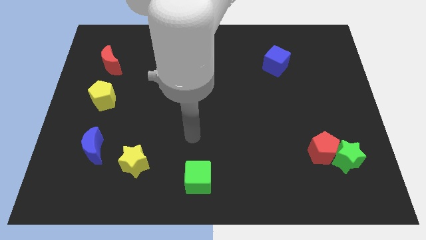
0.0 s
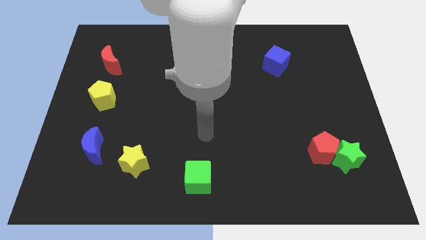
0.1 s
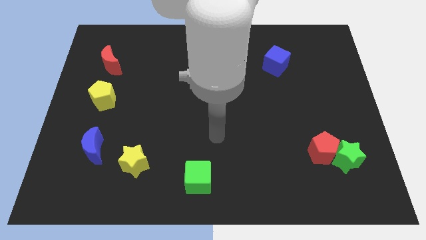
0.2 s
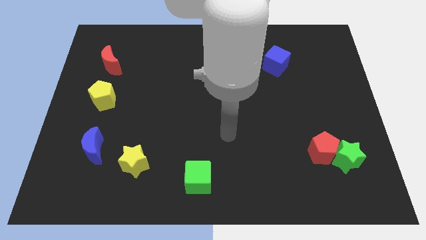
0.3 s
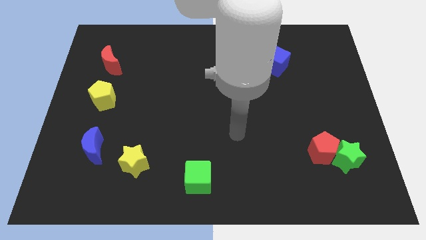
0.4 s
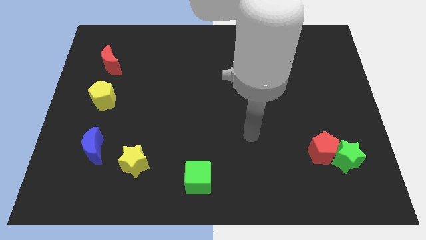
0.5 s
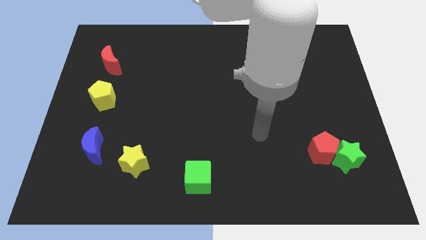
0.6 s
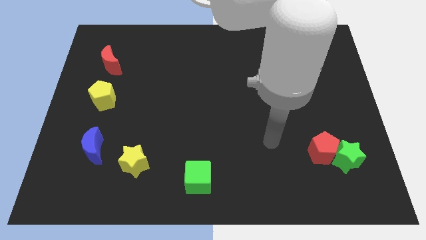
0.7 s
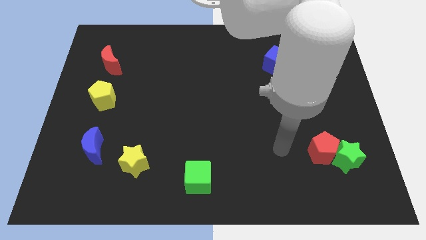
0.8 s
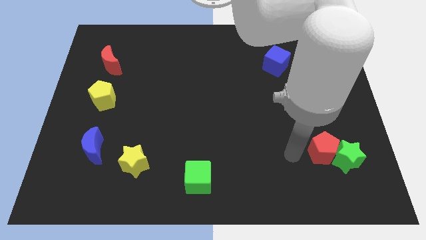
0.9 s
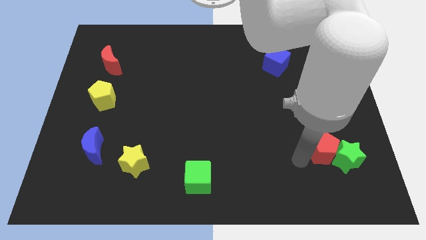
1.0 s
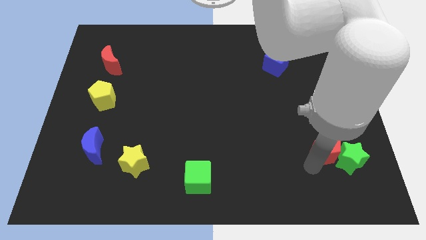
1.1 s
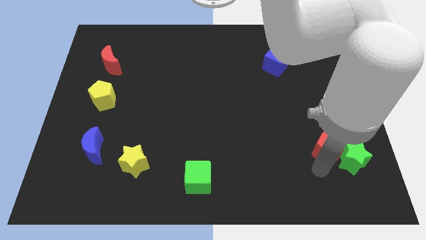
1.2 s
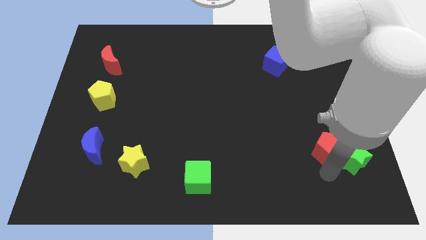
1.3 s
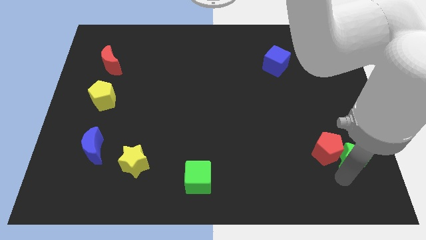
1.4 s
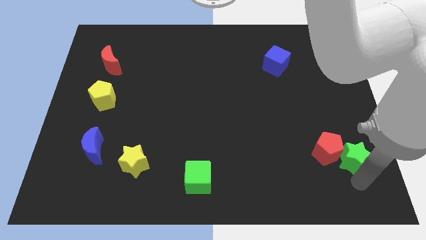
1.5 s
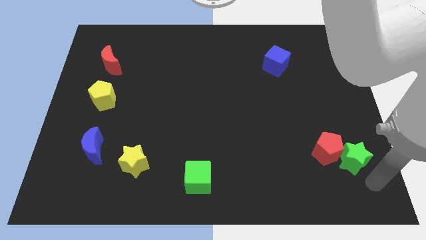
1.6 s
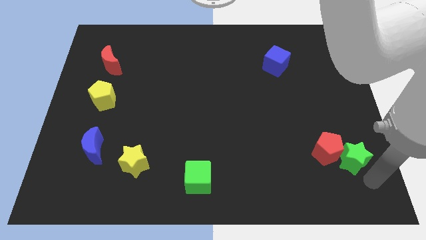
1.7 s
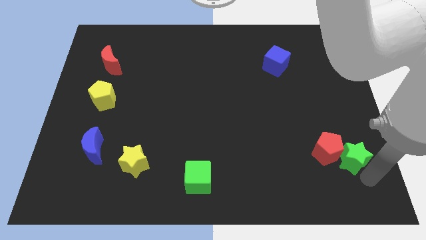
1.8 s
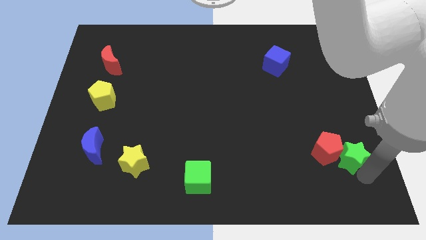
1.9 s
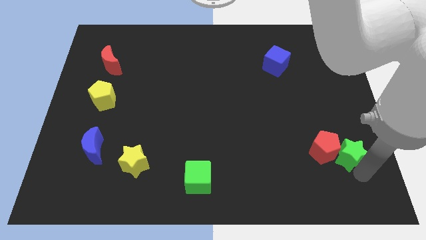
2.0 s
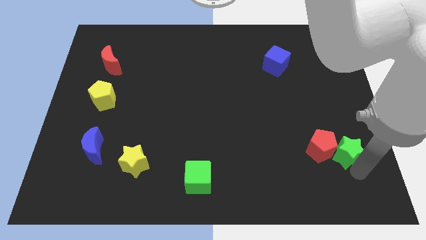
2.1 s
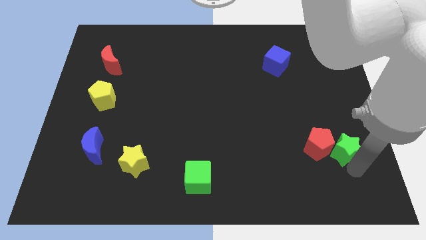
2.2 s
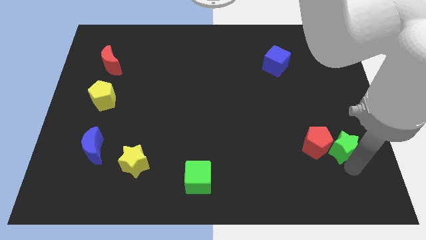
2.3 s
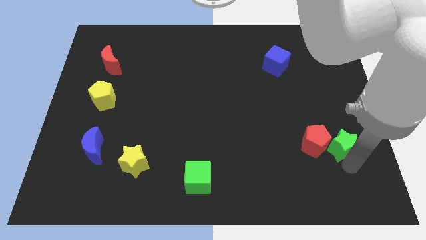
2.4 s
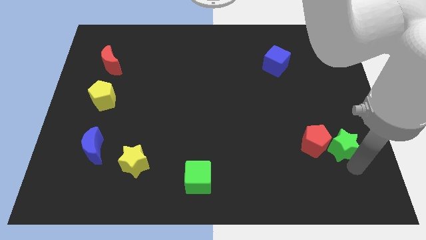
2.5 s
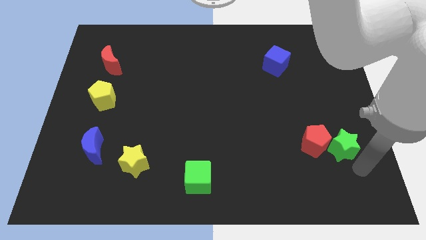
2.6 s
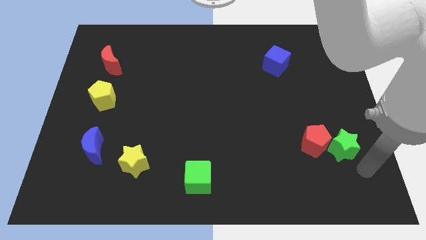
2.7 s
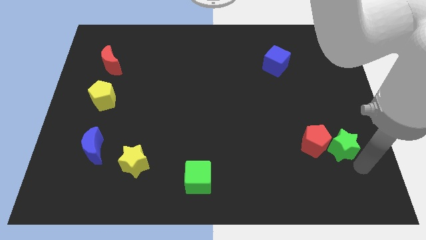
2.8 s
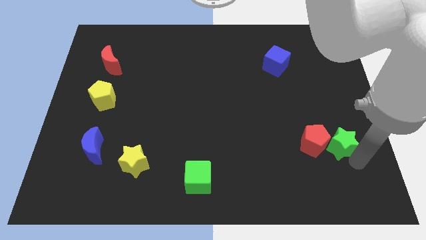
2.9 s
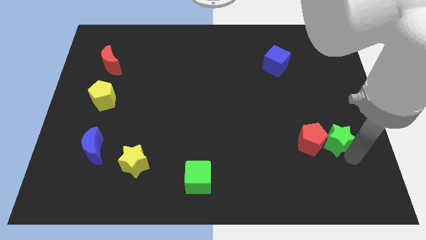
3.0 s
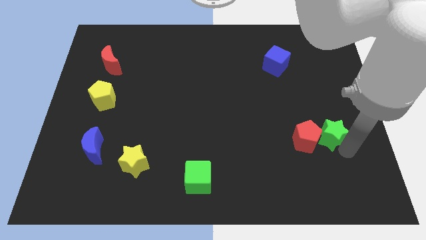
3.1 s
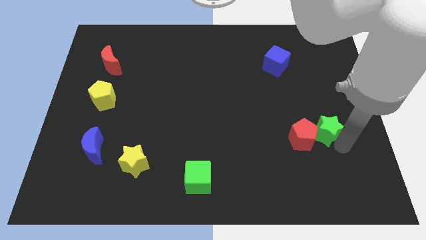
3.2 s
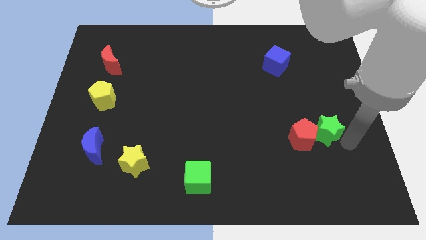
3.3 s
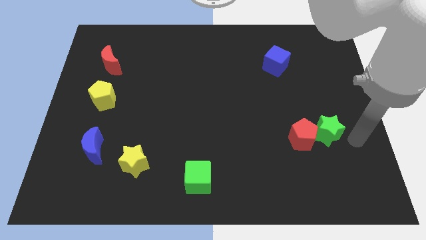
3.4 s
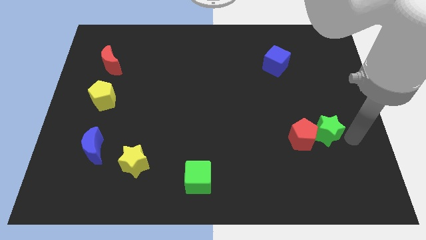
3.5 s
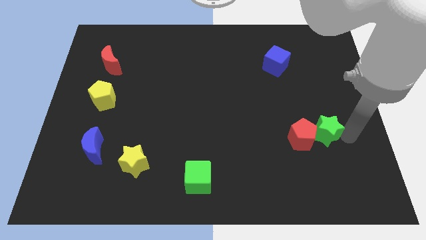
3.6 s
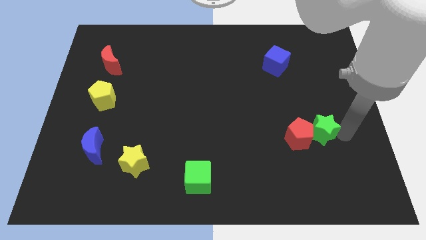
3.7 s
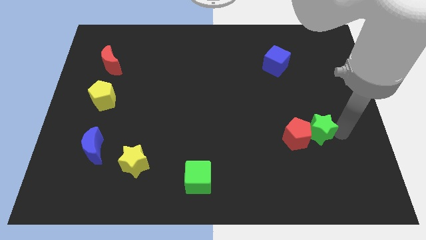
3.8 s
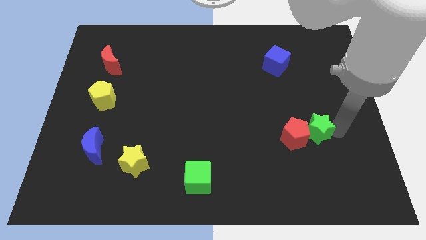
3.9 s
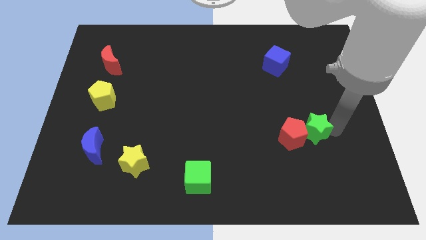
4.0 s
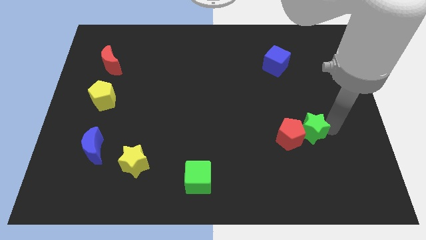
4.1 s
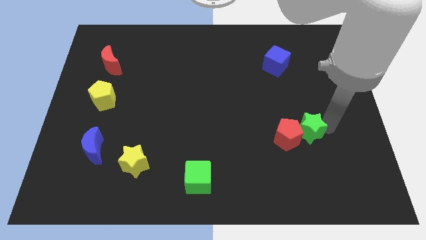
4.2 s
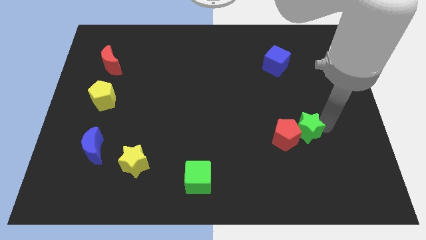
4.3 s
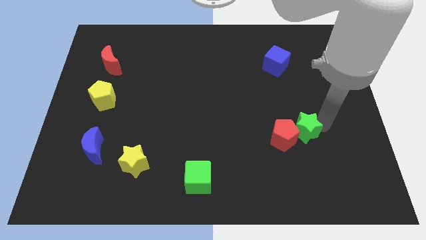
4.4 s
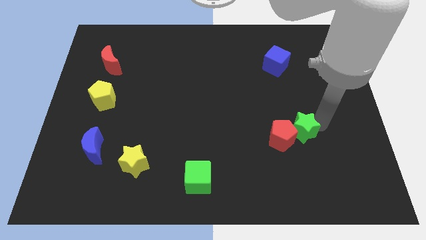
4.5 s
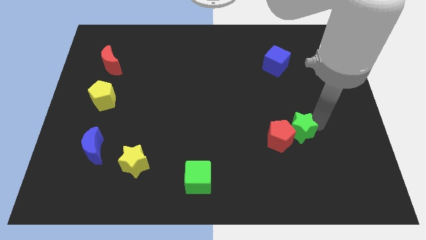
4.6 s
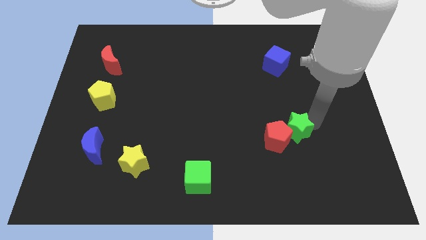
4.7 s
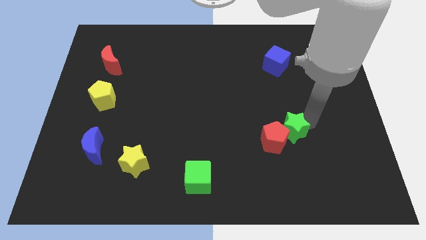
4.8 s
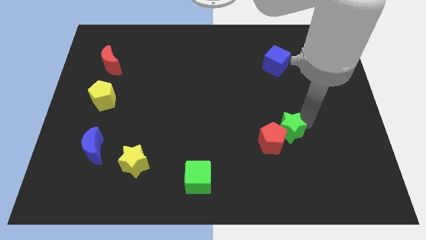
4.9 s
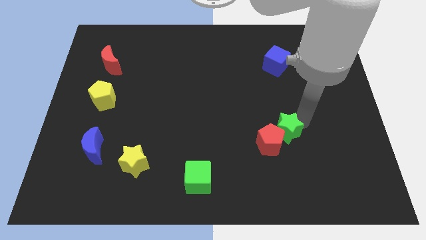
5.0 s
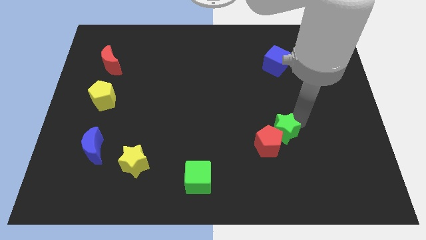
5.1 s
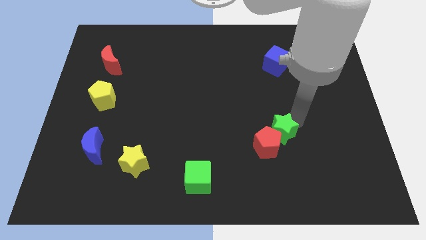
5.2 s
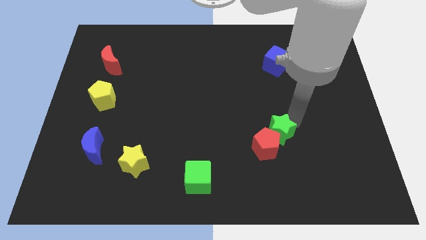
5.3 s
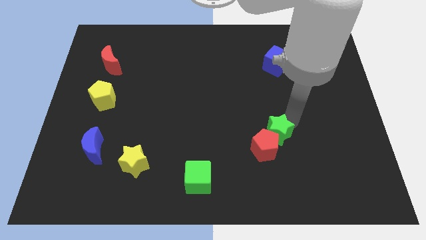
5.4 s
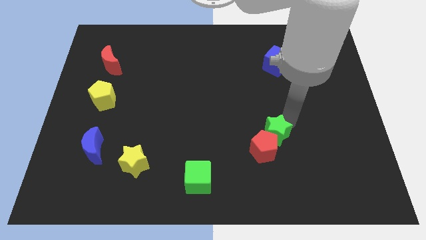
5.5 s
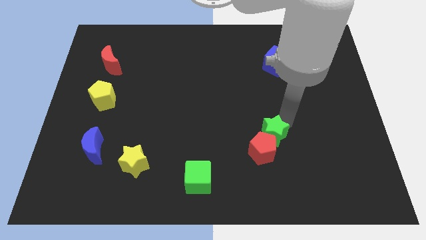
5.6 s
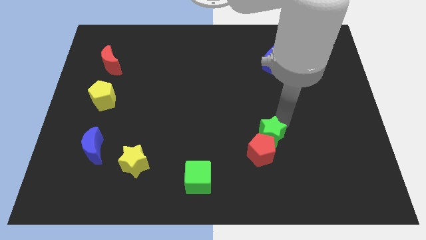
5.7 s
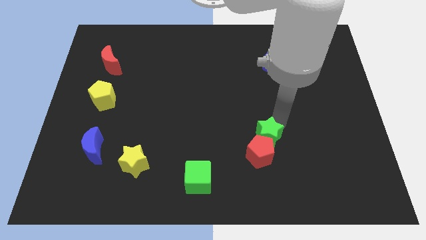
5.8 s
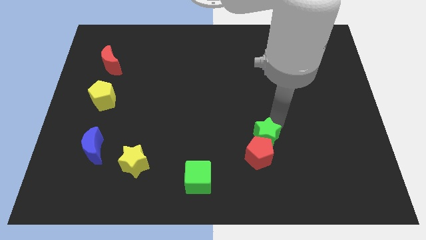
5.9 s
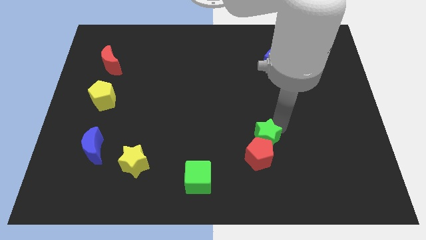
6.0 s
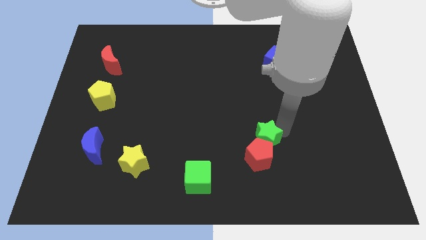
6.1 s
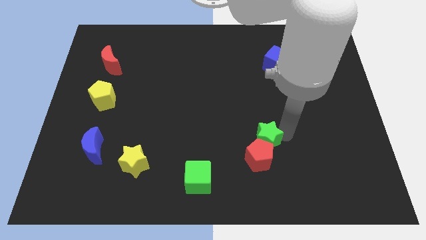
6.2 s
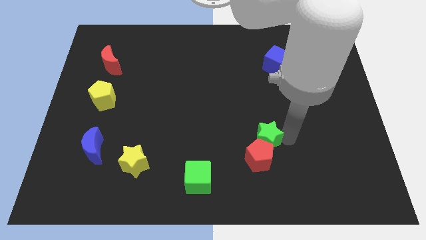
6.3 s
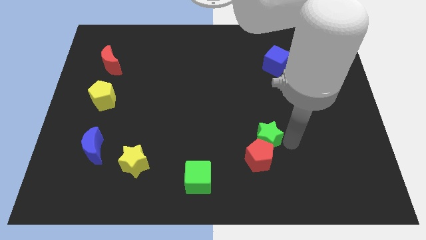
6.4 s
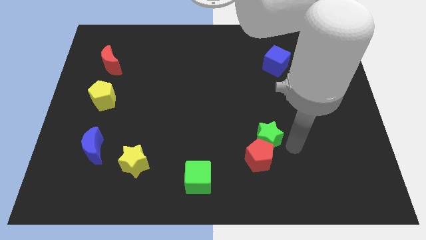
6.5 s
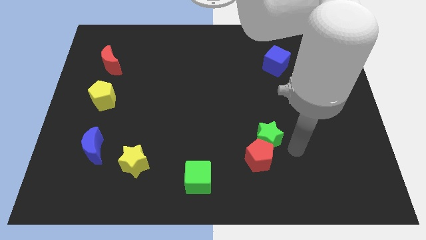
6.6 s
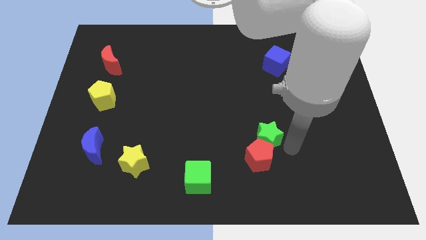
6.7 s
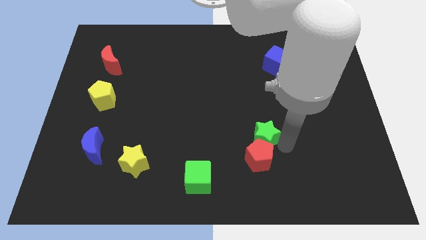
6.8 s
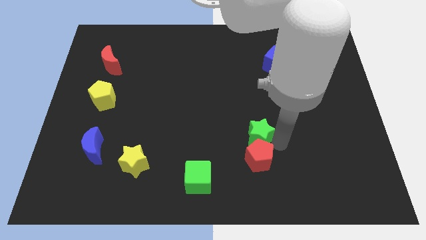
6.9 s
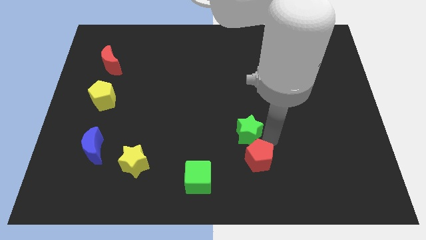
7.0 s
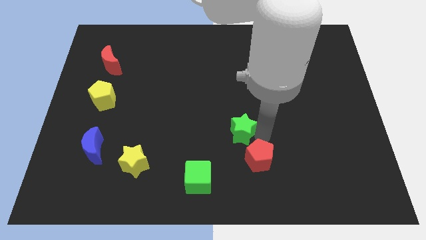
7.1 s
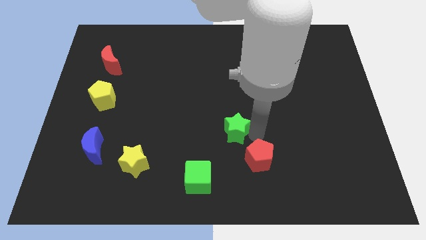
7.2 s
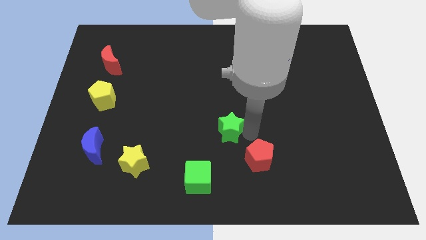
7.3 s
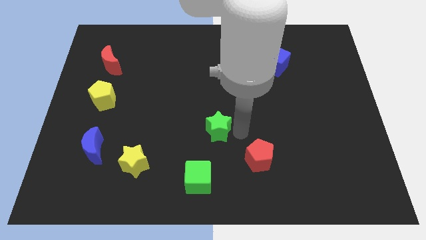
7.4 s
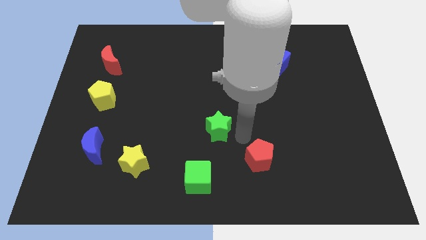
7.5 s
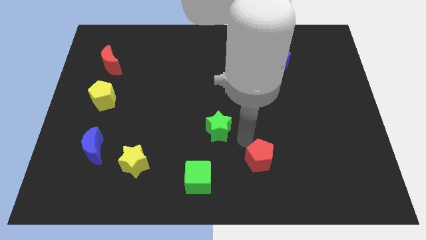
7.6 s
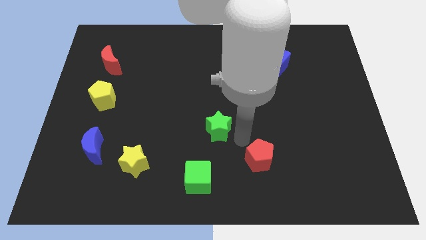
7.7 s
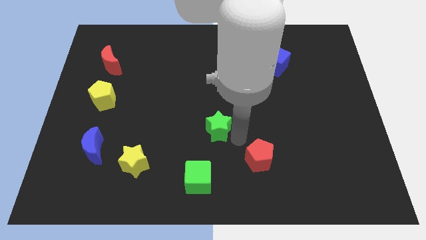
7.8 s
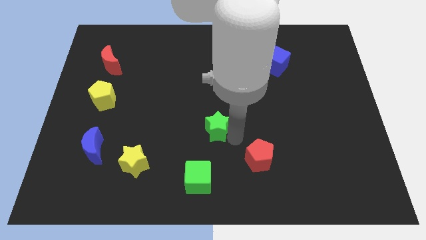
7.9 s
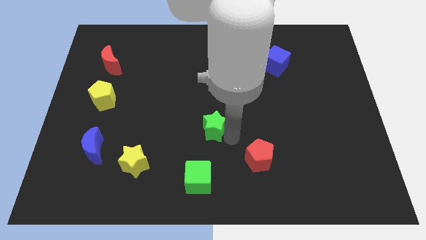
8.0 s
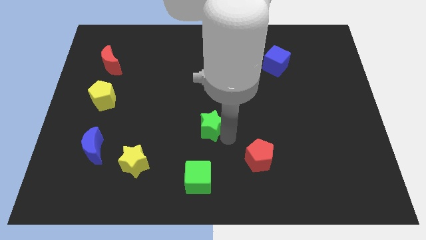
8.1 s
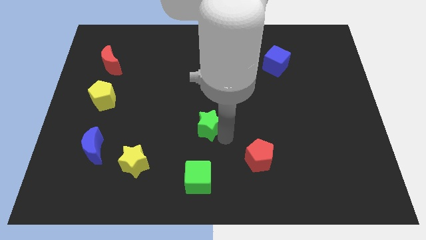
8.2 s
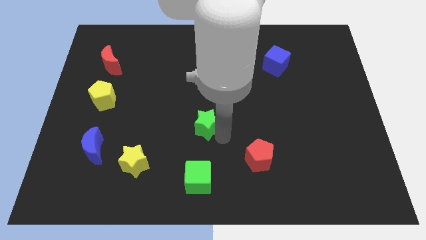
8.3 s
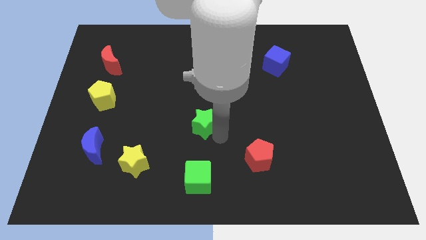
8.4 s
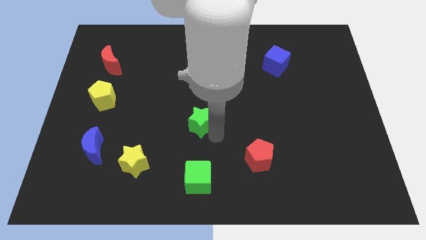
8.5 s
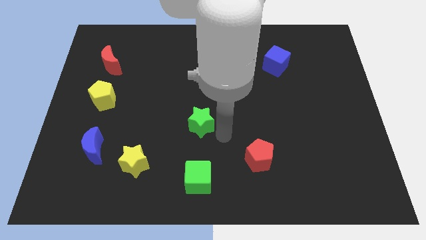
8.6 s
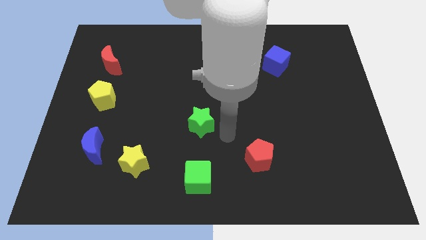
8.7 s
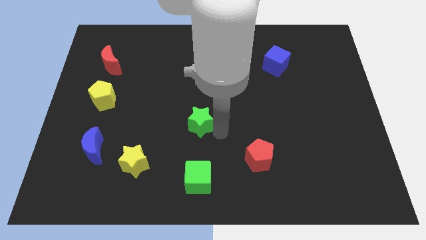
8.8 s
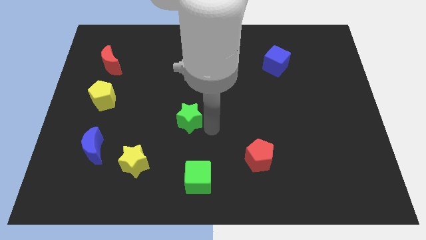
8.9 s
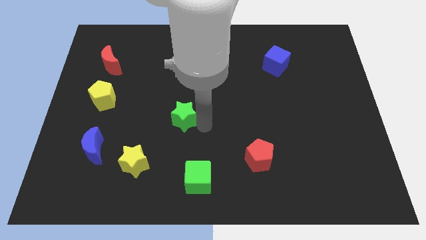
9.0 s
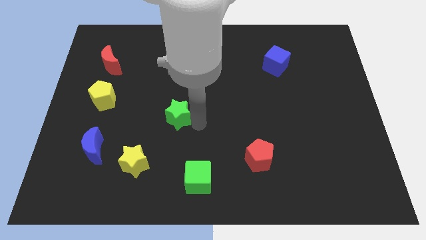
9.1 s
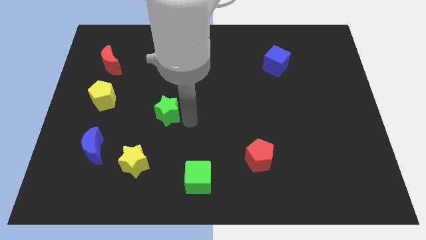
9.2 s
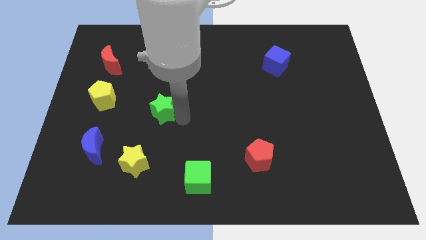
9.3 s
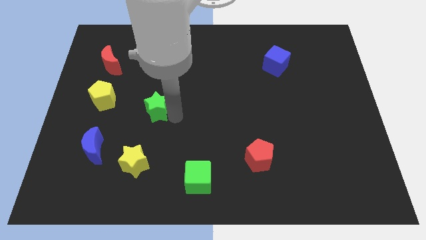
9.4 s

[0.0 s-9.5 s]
move the green star just right of the yellow pentagon
